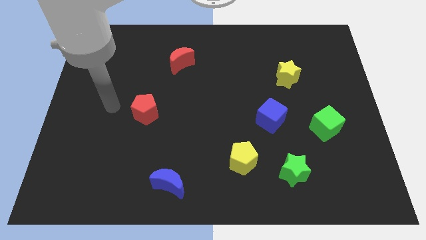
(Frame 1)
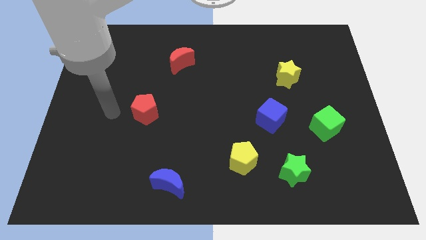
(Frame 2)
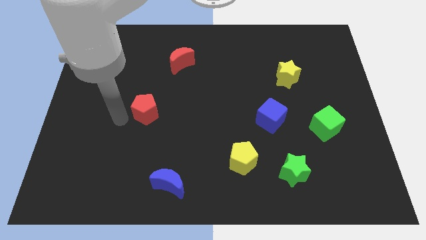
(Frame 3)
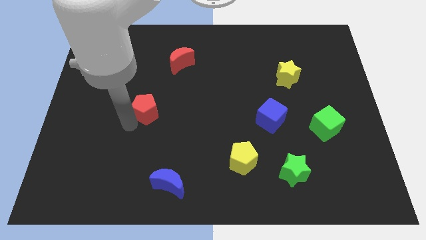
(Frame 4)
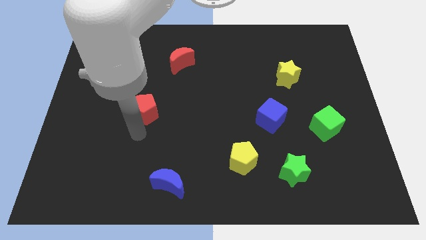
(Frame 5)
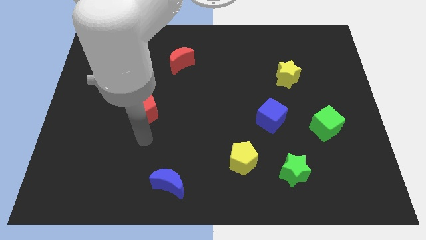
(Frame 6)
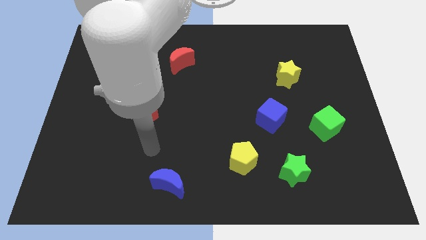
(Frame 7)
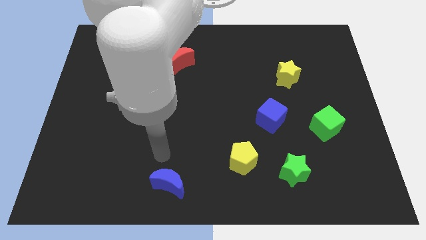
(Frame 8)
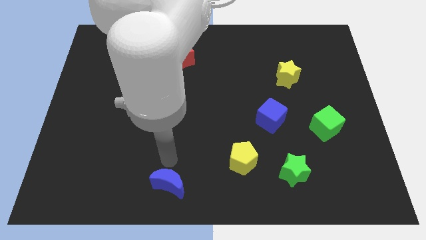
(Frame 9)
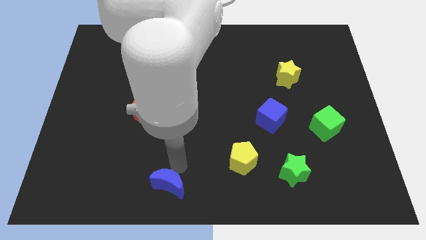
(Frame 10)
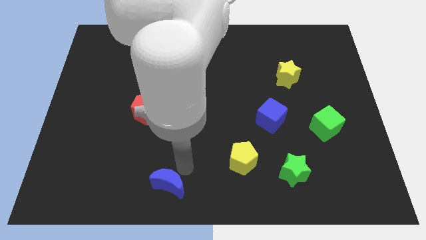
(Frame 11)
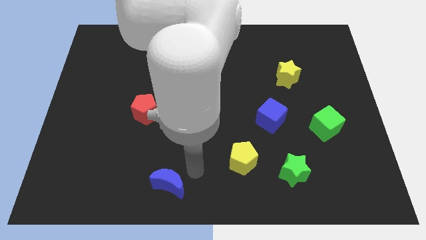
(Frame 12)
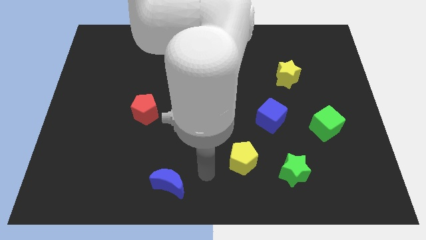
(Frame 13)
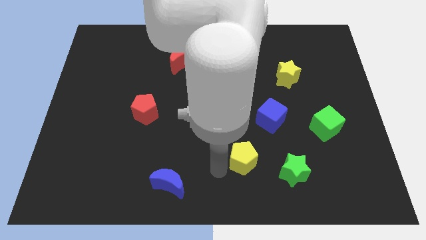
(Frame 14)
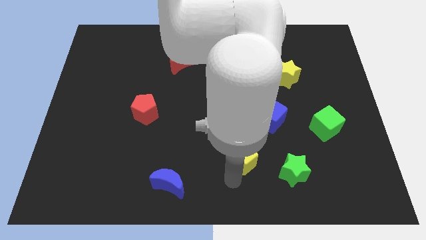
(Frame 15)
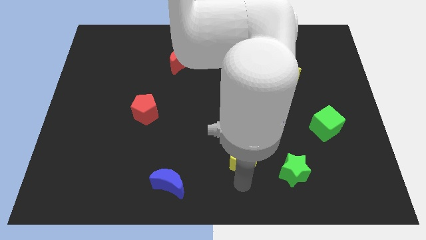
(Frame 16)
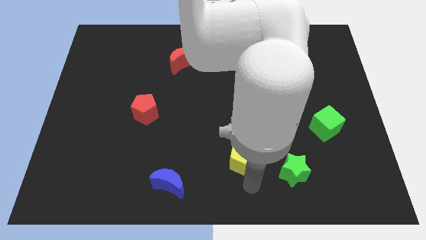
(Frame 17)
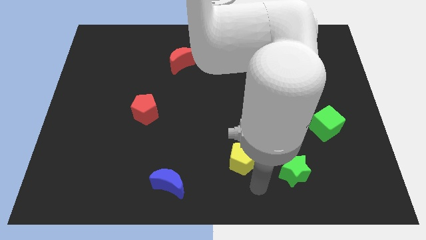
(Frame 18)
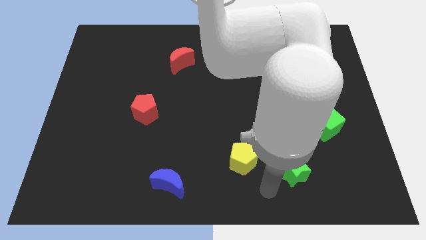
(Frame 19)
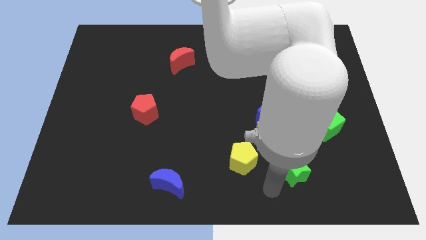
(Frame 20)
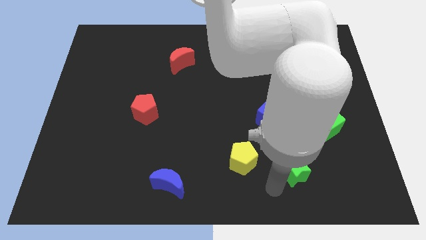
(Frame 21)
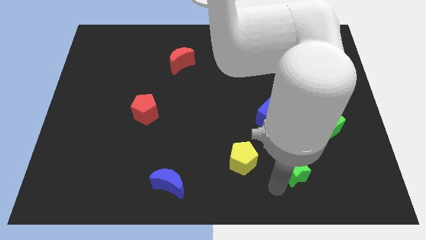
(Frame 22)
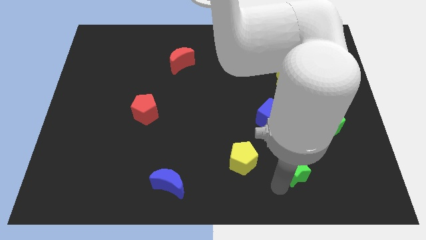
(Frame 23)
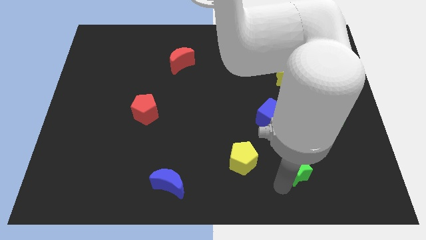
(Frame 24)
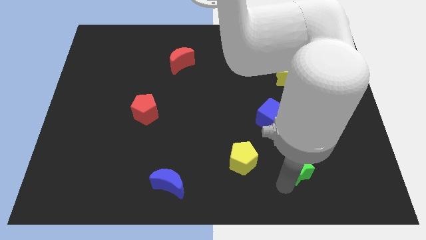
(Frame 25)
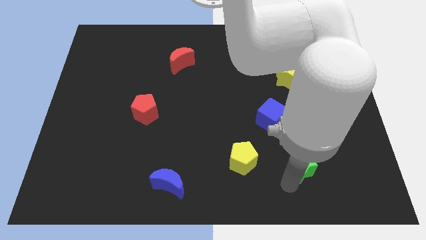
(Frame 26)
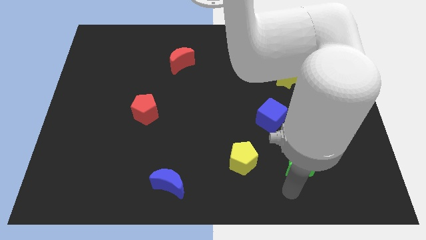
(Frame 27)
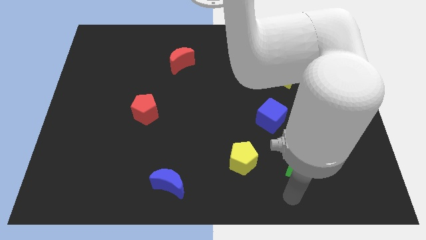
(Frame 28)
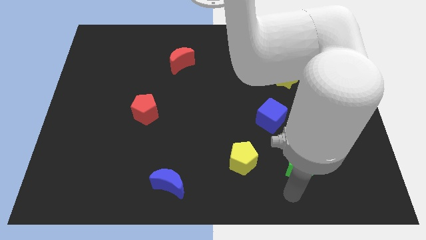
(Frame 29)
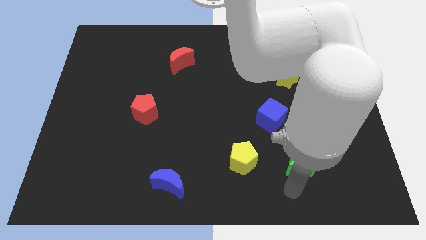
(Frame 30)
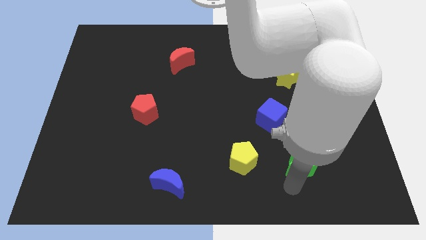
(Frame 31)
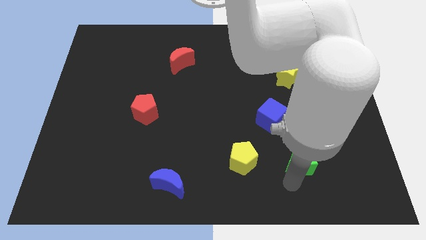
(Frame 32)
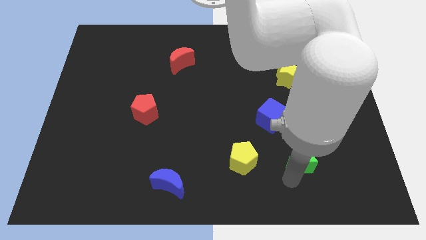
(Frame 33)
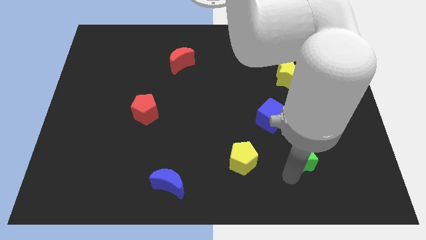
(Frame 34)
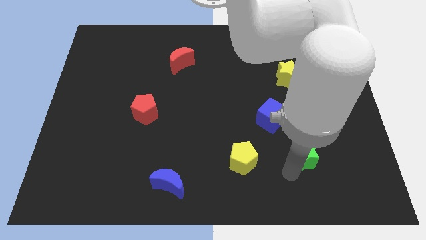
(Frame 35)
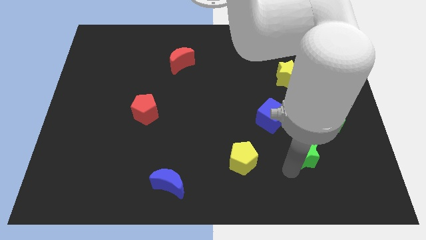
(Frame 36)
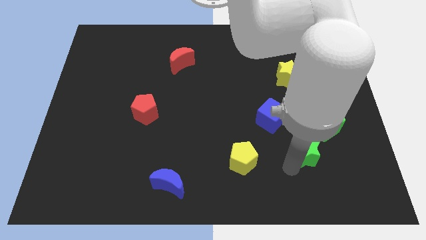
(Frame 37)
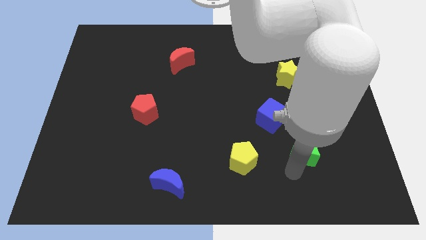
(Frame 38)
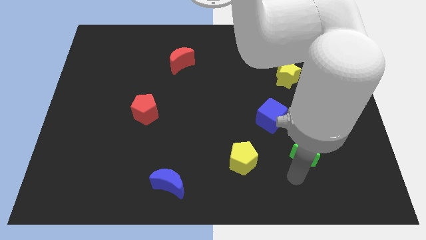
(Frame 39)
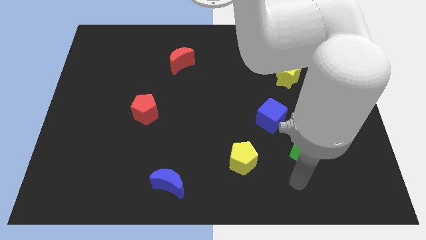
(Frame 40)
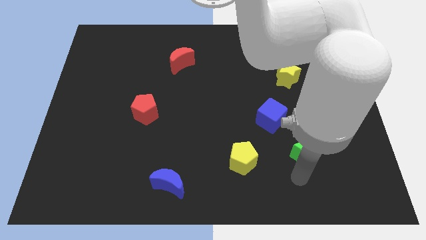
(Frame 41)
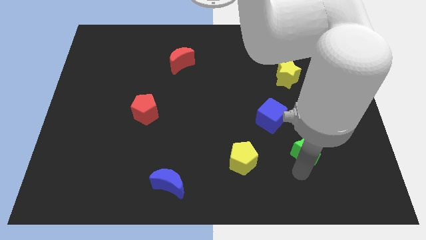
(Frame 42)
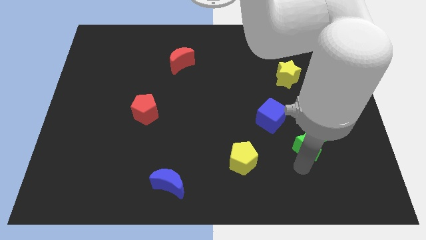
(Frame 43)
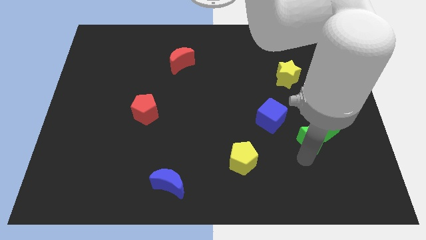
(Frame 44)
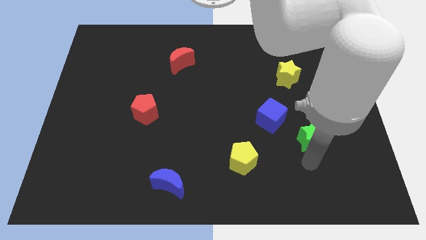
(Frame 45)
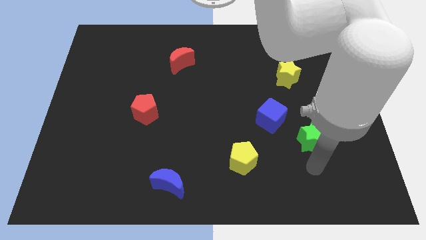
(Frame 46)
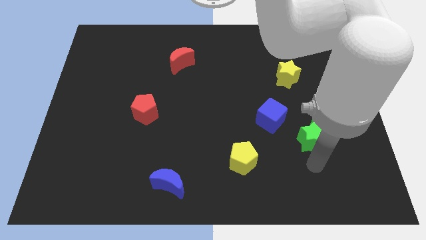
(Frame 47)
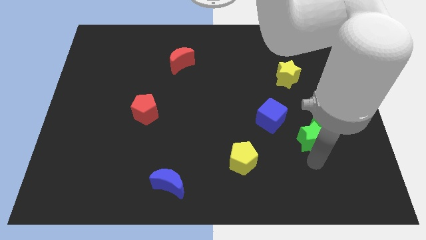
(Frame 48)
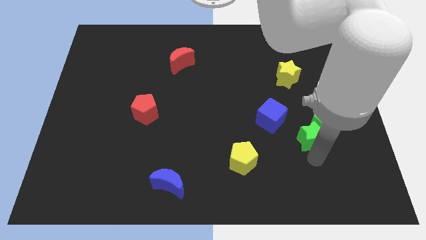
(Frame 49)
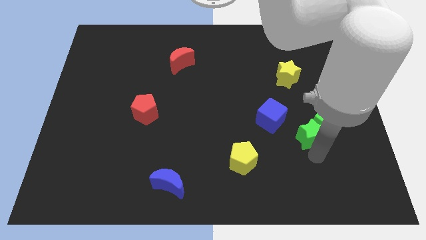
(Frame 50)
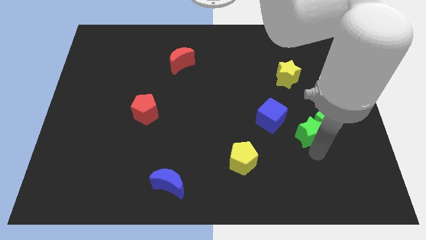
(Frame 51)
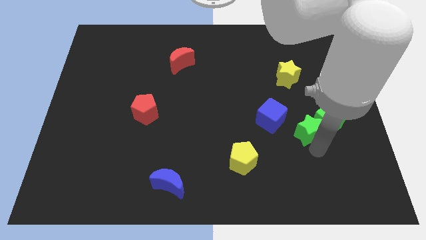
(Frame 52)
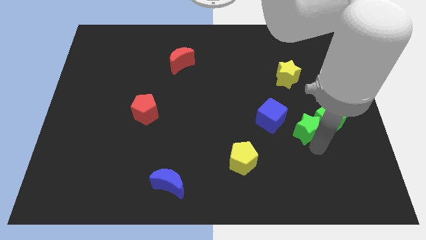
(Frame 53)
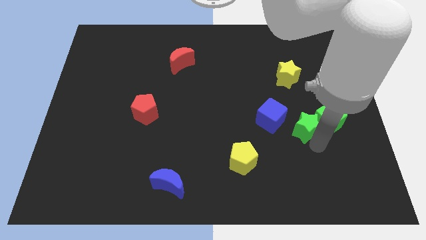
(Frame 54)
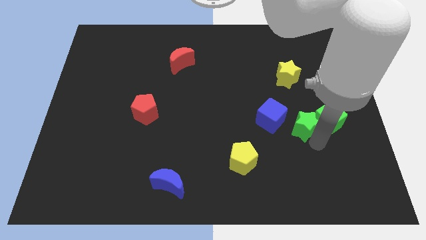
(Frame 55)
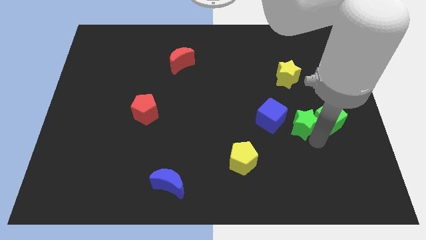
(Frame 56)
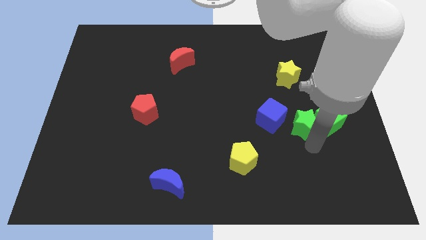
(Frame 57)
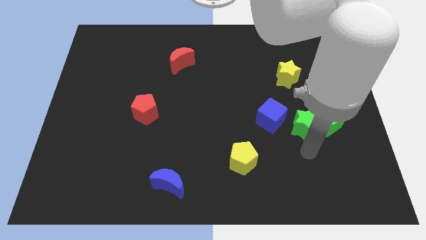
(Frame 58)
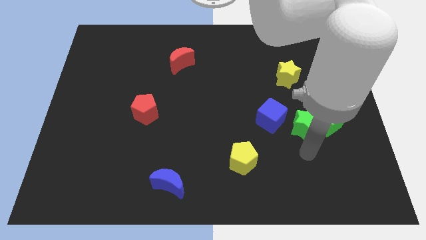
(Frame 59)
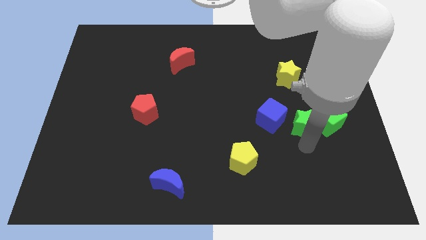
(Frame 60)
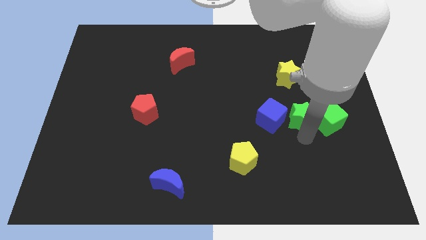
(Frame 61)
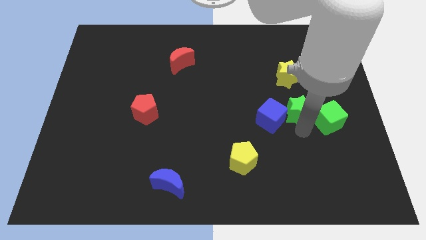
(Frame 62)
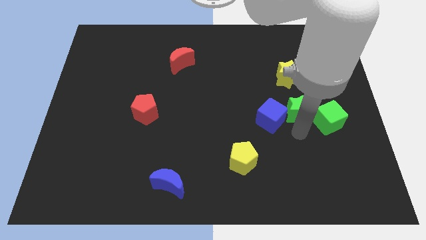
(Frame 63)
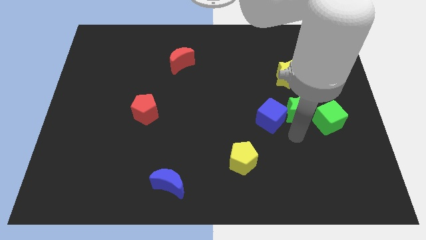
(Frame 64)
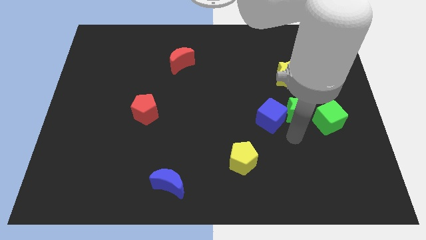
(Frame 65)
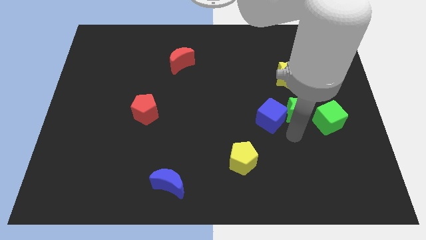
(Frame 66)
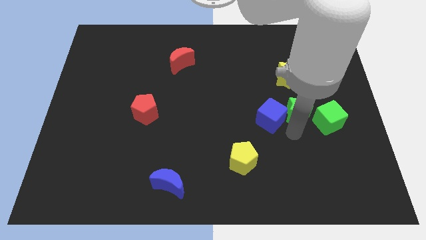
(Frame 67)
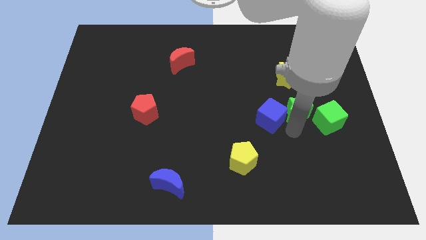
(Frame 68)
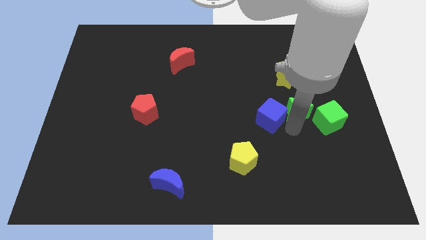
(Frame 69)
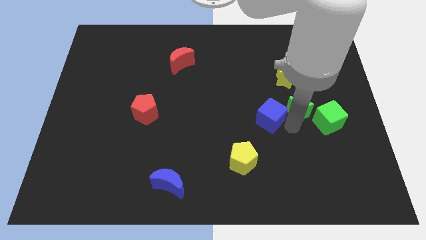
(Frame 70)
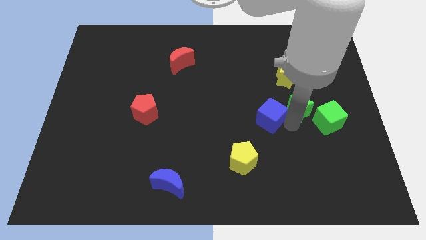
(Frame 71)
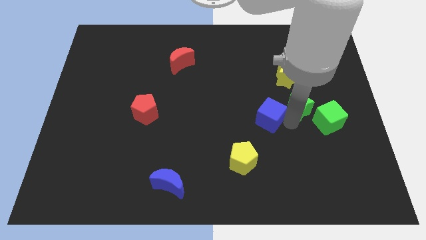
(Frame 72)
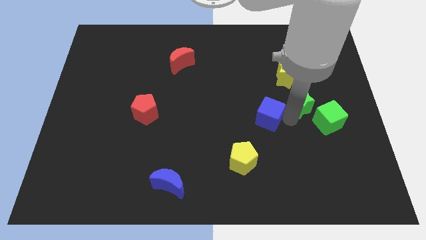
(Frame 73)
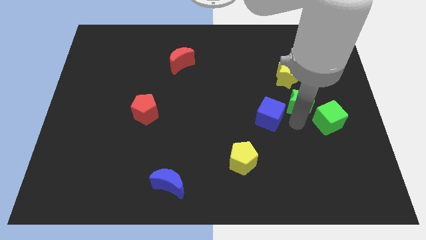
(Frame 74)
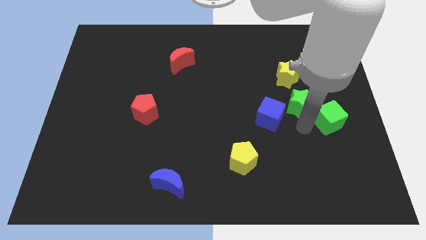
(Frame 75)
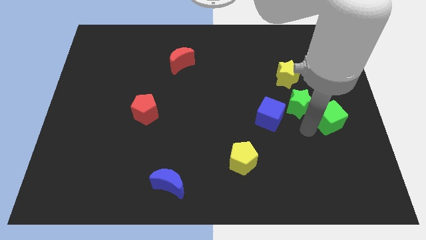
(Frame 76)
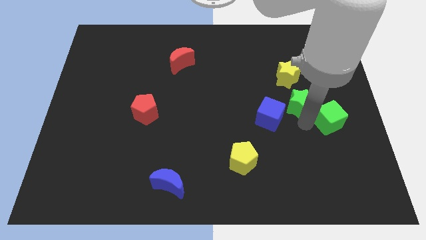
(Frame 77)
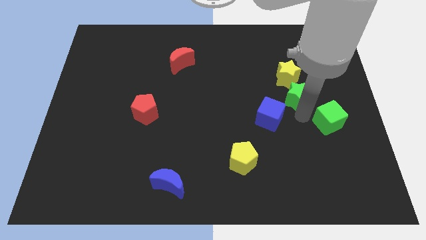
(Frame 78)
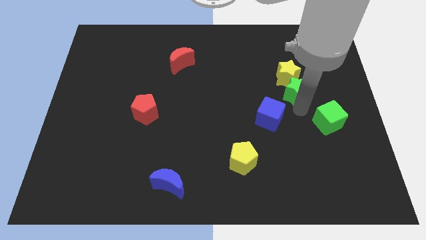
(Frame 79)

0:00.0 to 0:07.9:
push the green star close to the yellow star
